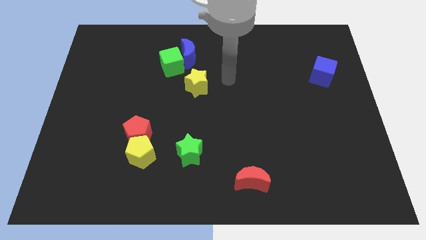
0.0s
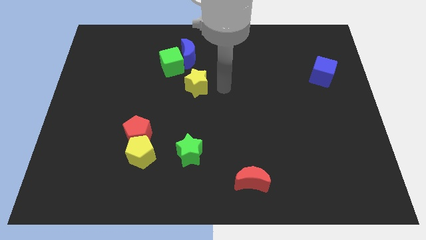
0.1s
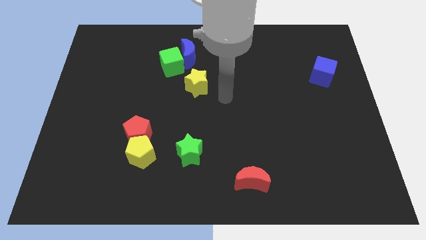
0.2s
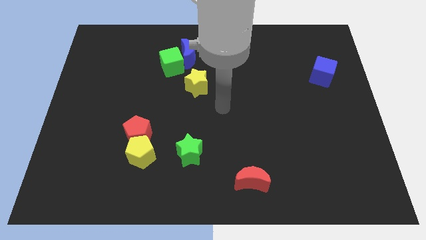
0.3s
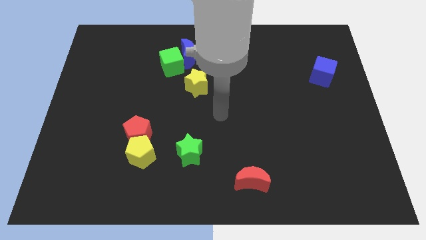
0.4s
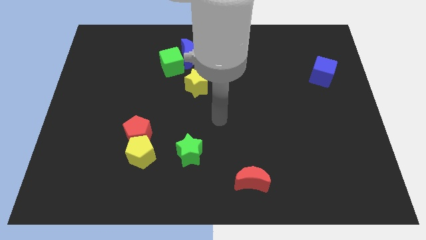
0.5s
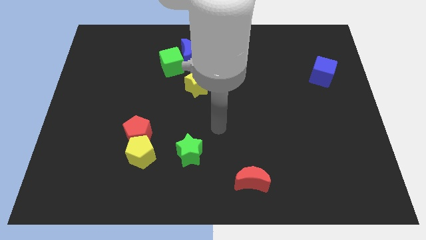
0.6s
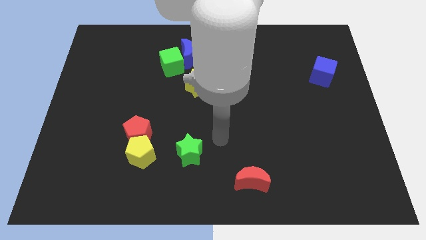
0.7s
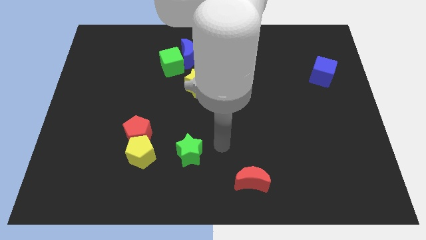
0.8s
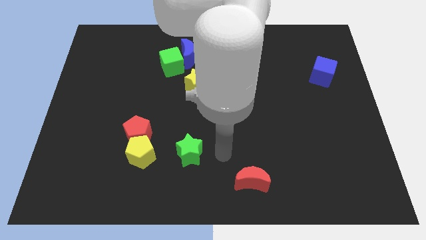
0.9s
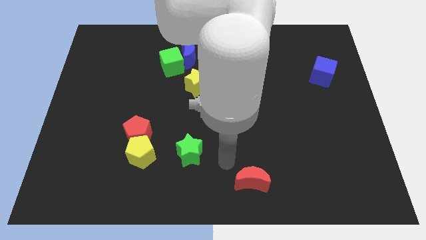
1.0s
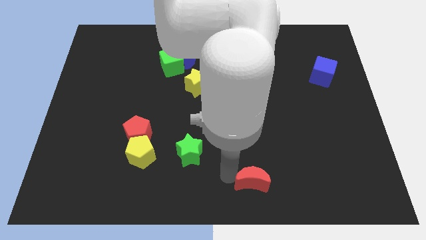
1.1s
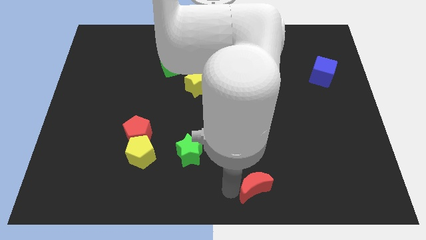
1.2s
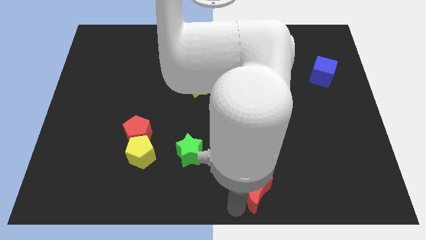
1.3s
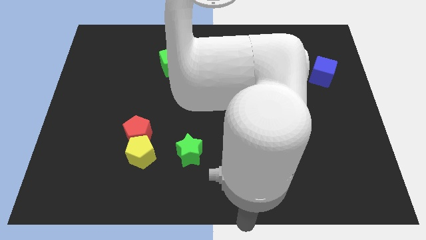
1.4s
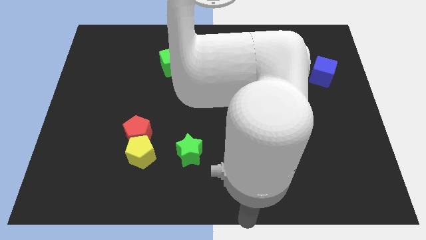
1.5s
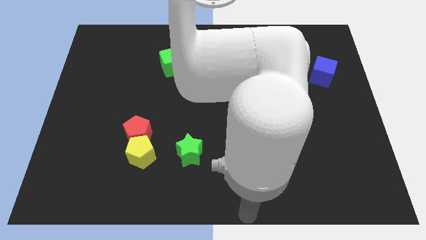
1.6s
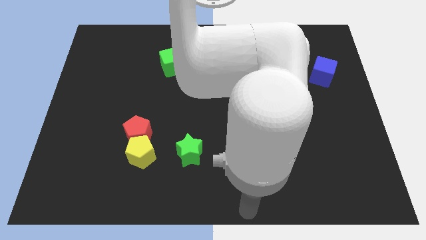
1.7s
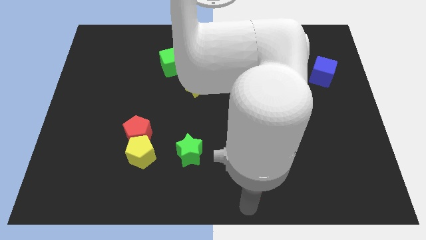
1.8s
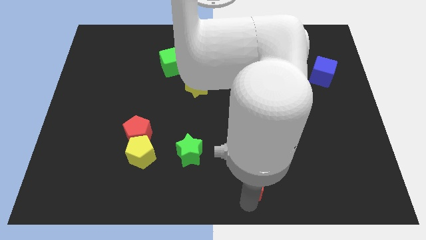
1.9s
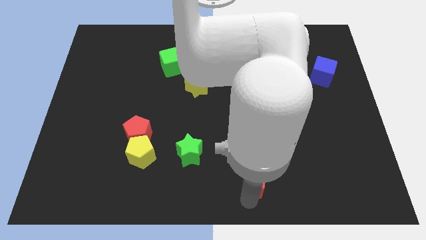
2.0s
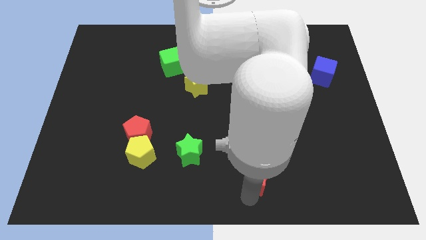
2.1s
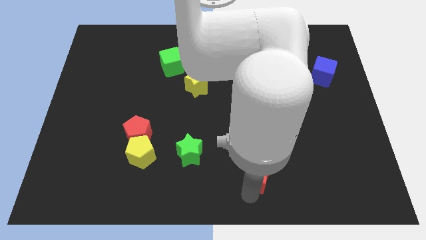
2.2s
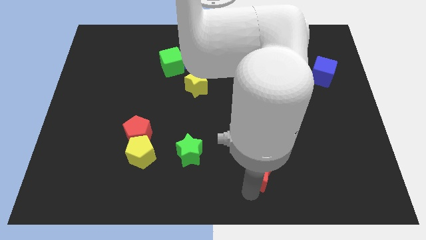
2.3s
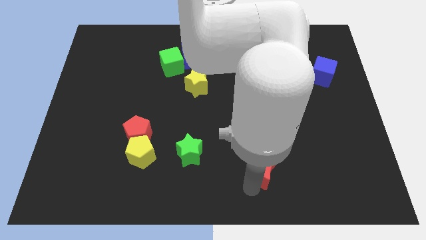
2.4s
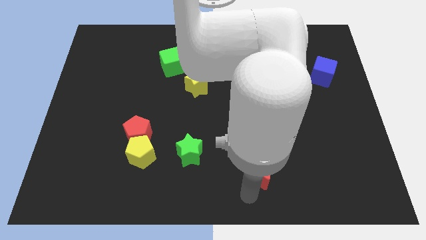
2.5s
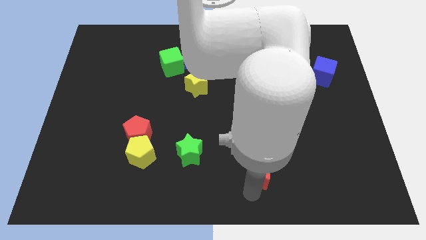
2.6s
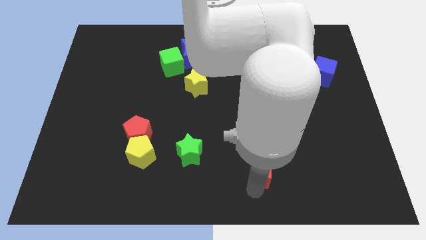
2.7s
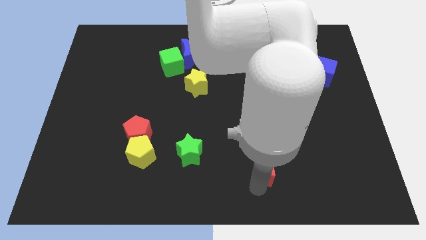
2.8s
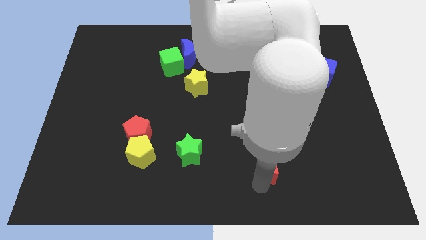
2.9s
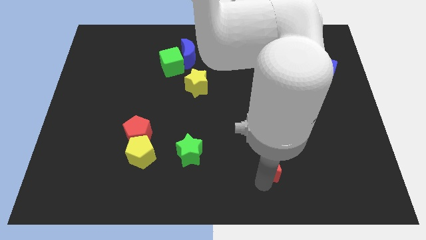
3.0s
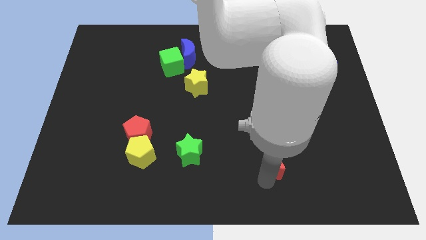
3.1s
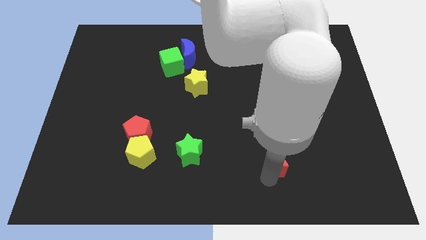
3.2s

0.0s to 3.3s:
push the red moon a little bit up and then to the right

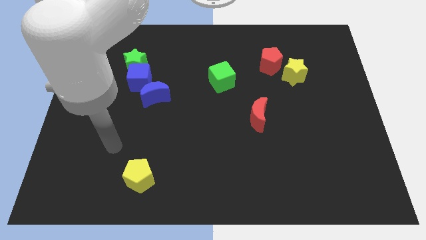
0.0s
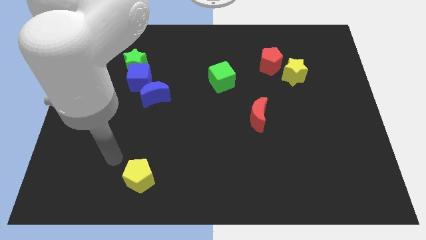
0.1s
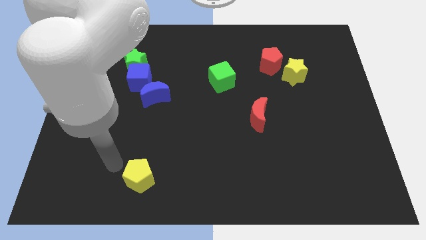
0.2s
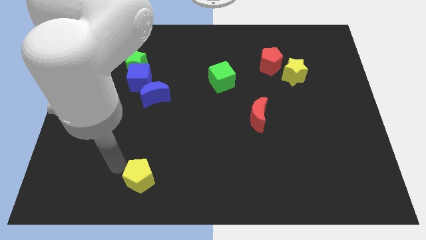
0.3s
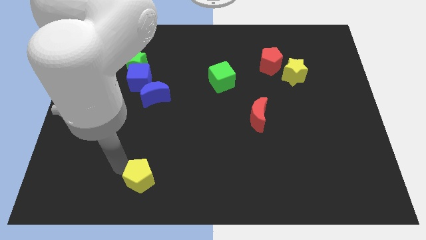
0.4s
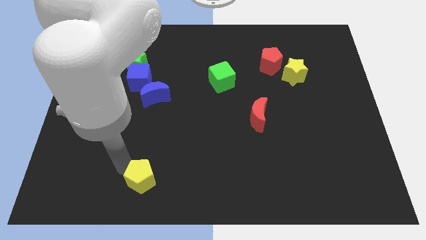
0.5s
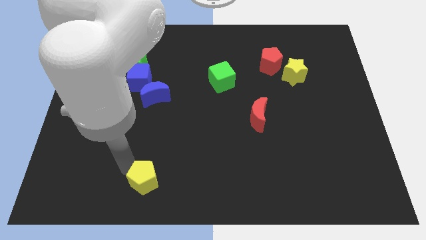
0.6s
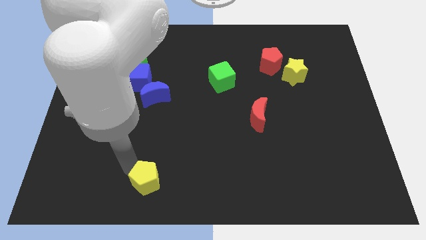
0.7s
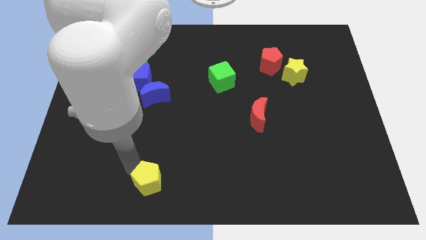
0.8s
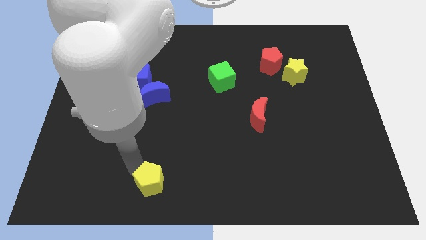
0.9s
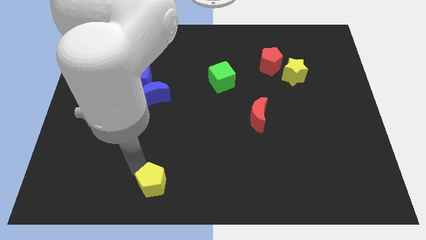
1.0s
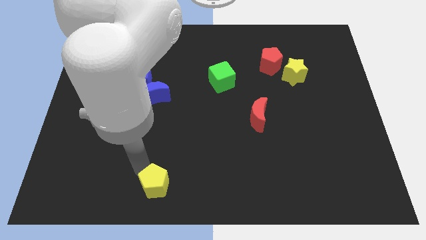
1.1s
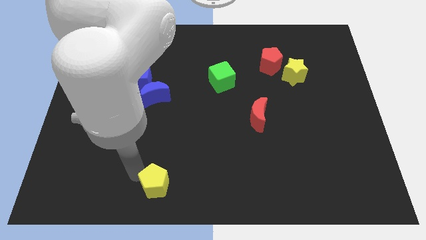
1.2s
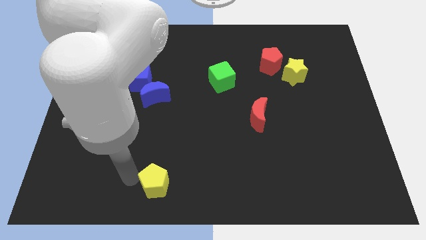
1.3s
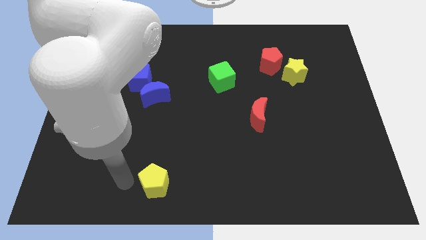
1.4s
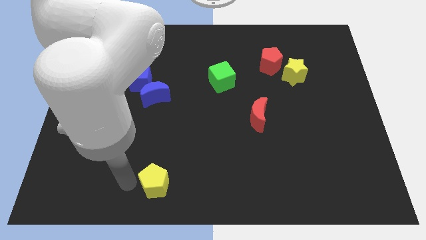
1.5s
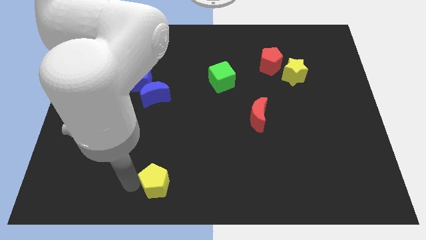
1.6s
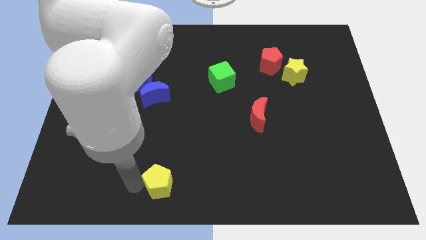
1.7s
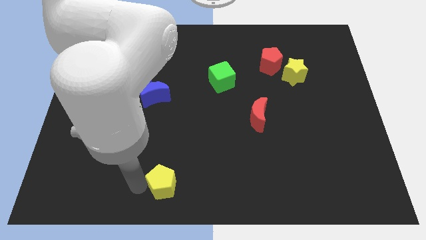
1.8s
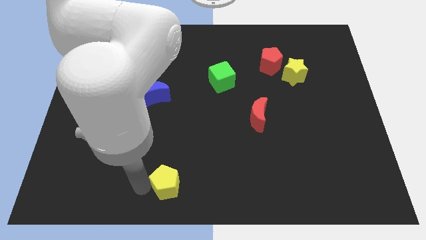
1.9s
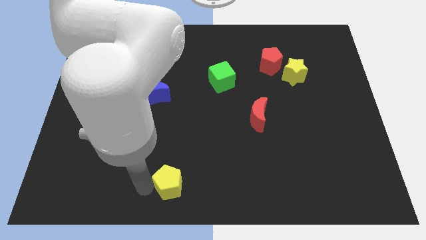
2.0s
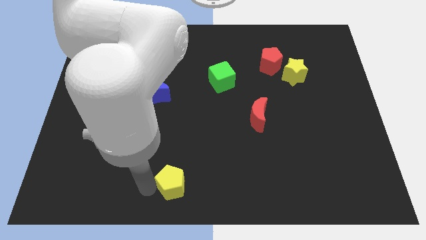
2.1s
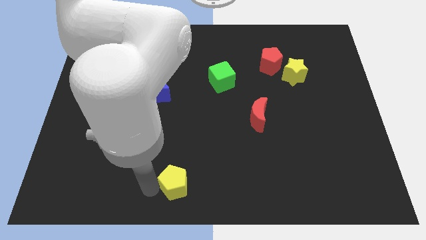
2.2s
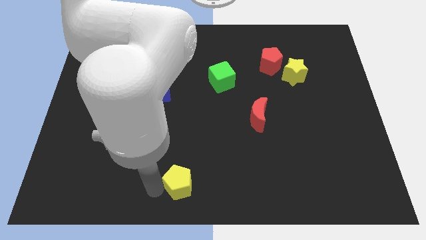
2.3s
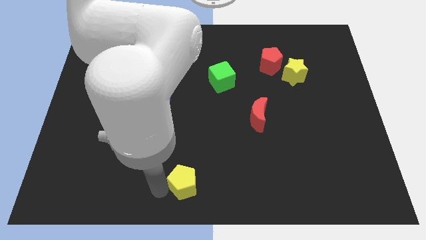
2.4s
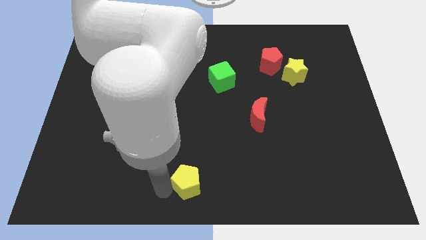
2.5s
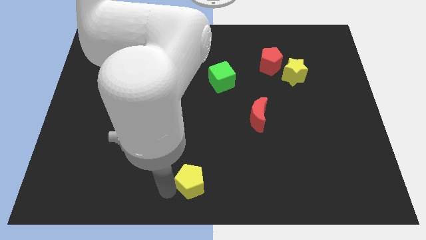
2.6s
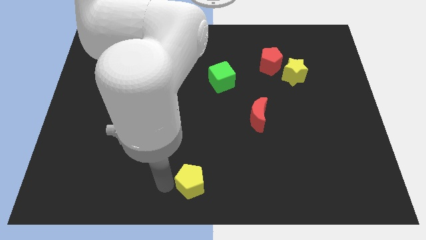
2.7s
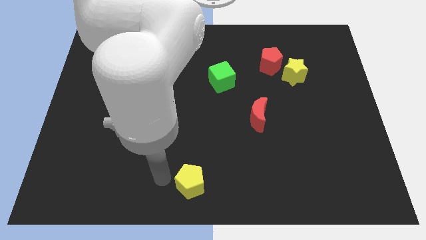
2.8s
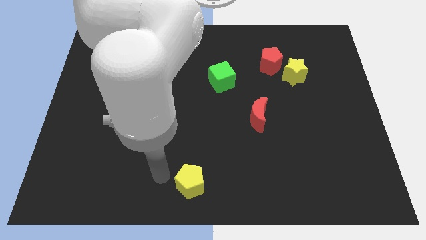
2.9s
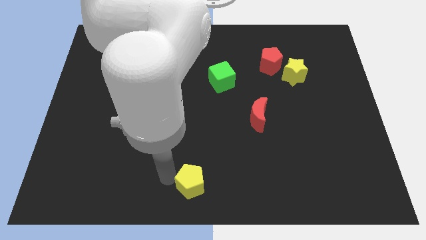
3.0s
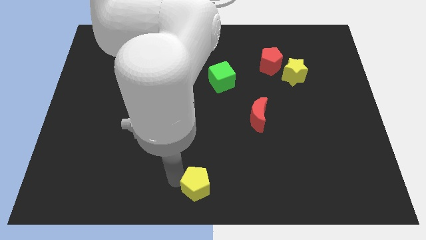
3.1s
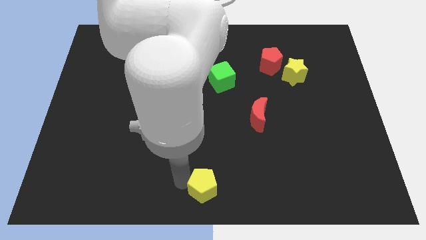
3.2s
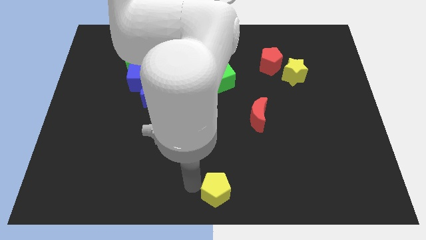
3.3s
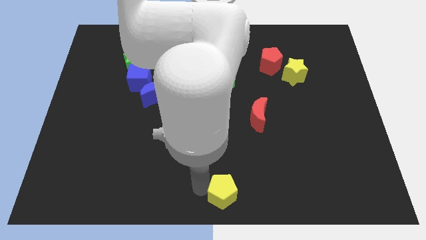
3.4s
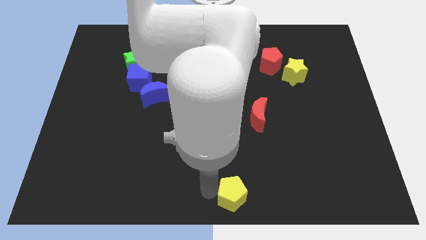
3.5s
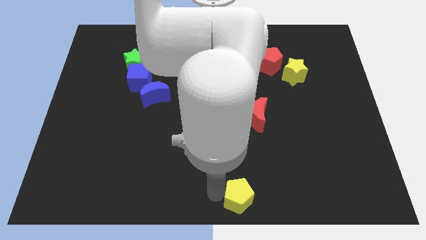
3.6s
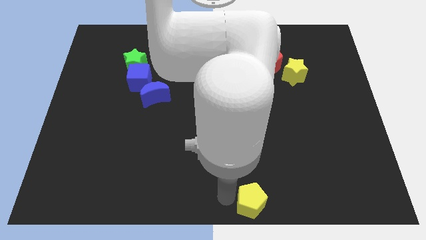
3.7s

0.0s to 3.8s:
slide the yellow pentagon to the right

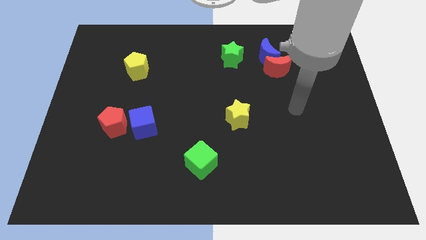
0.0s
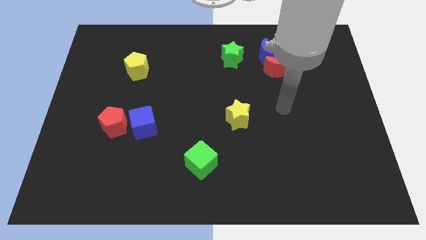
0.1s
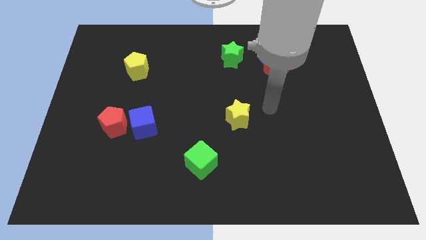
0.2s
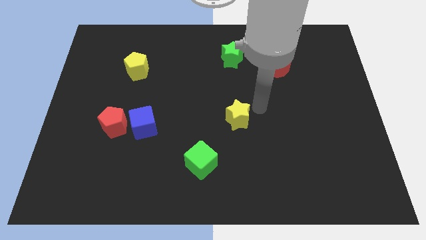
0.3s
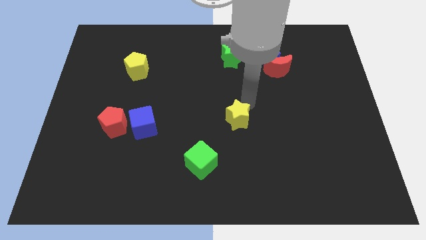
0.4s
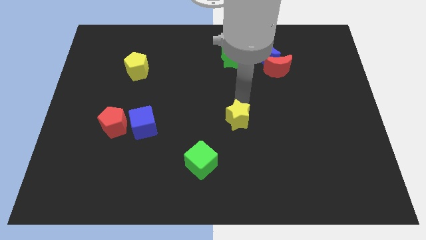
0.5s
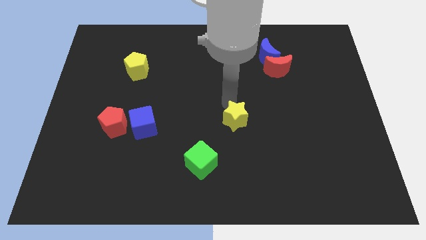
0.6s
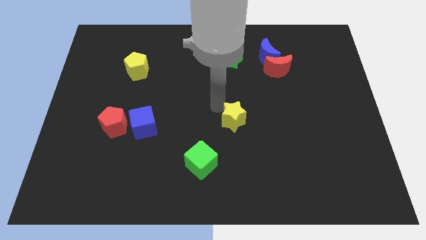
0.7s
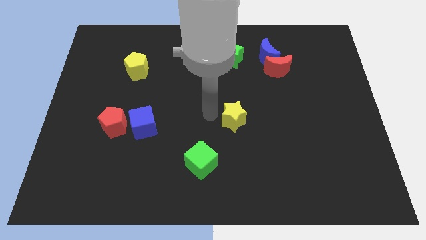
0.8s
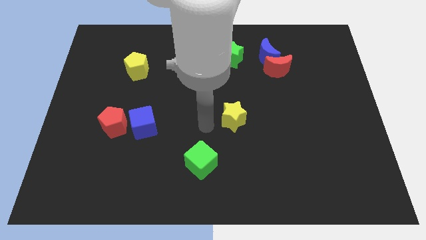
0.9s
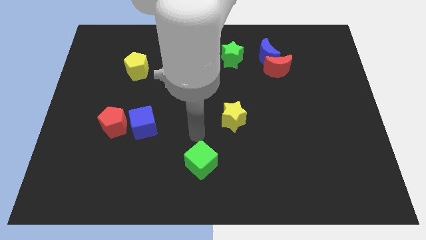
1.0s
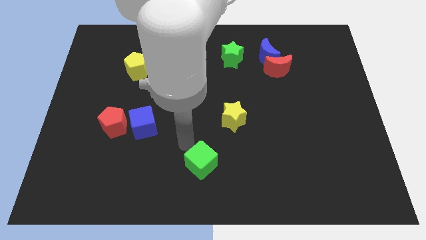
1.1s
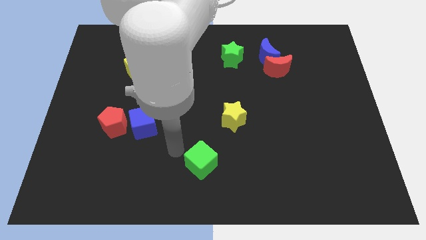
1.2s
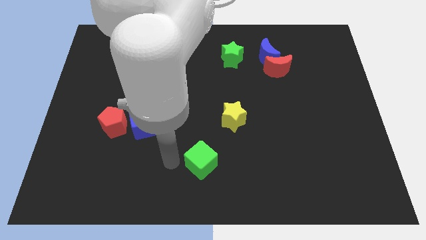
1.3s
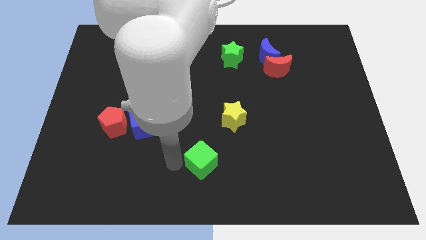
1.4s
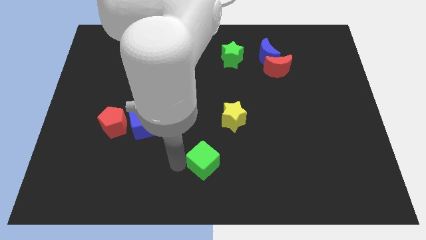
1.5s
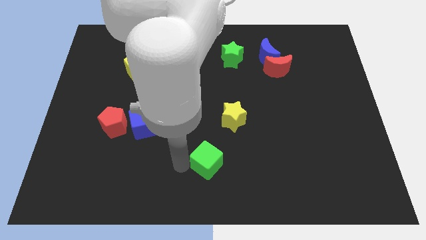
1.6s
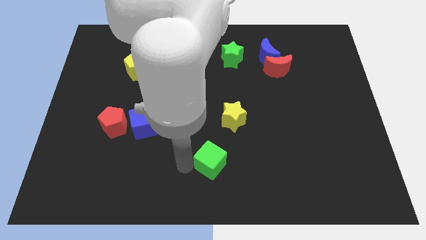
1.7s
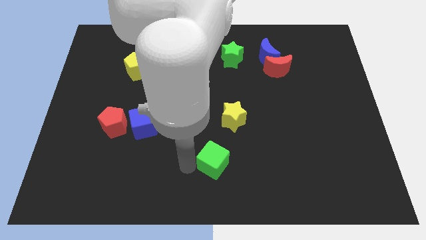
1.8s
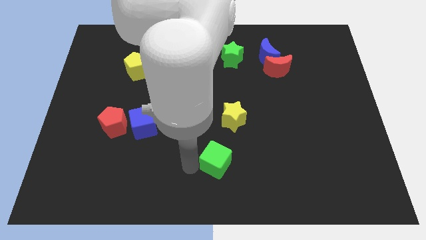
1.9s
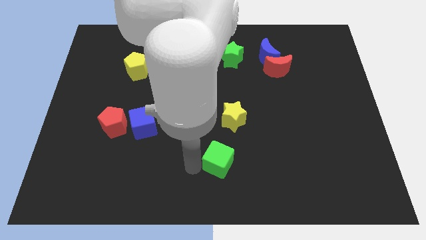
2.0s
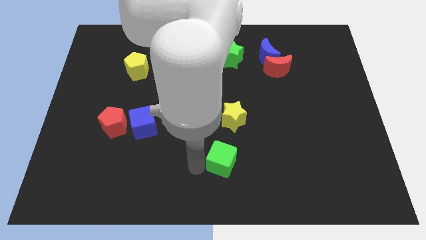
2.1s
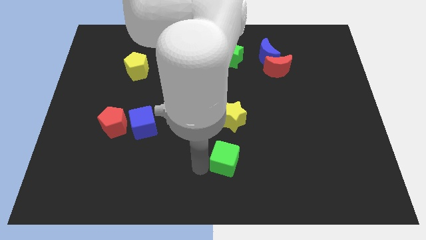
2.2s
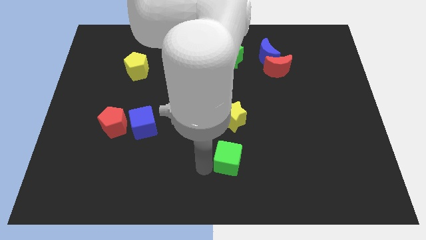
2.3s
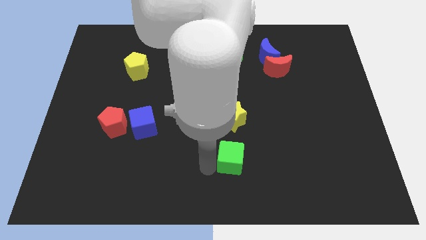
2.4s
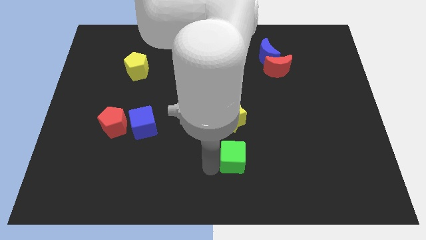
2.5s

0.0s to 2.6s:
slightly push the green cube to the right
